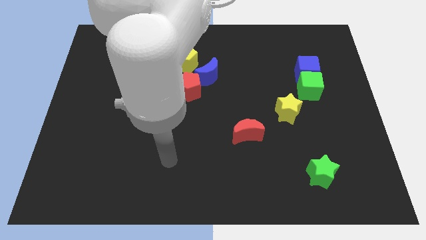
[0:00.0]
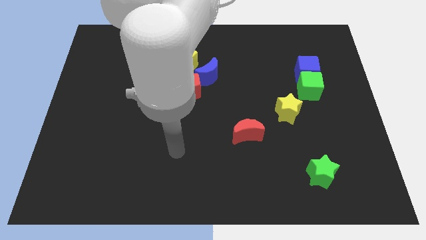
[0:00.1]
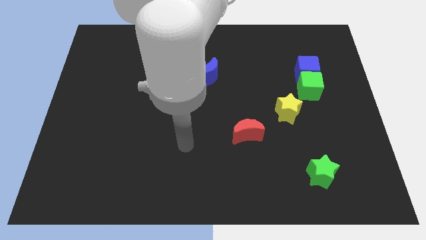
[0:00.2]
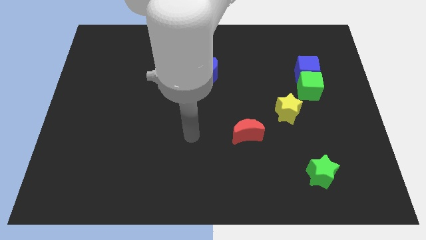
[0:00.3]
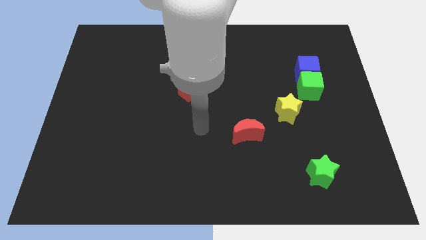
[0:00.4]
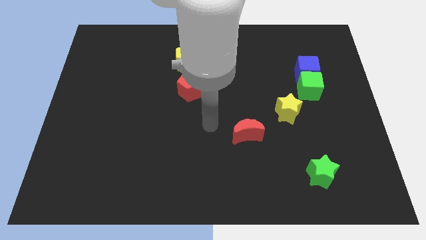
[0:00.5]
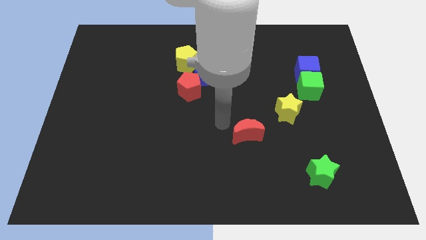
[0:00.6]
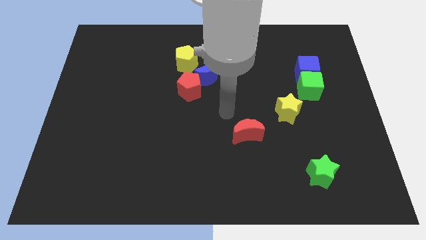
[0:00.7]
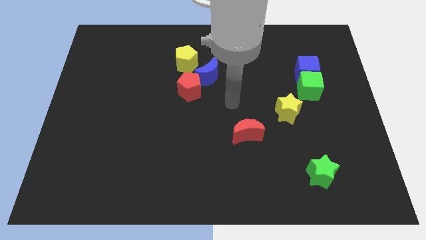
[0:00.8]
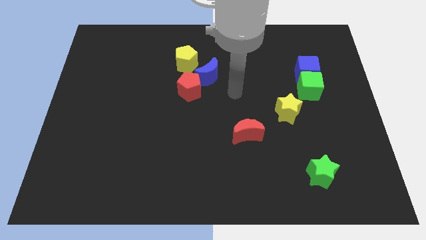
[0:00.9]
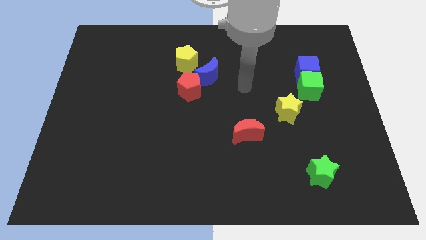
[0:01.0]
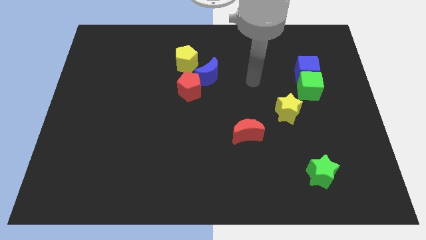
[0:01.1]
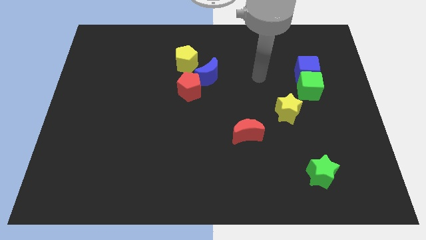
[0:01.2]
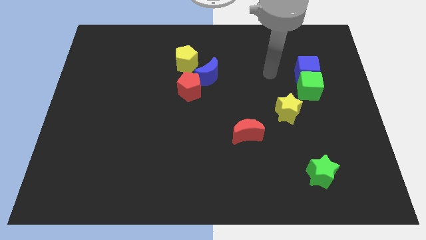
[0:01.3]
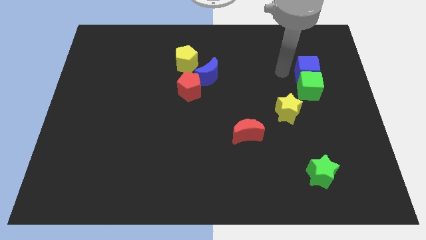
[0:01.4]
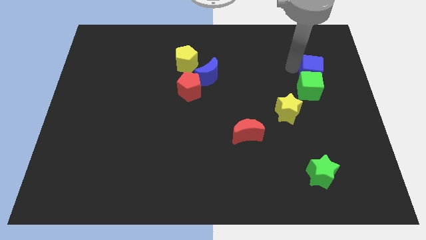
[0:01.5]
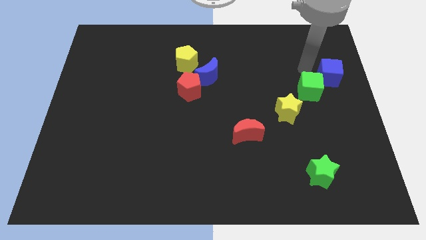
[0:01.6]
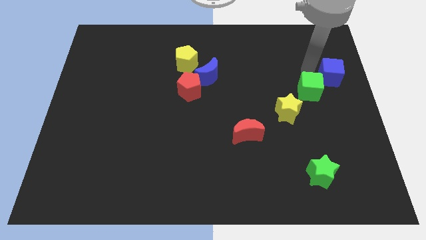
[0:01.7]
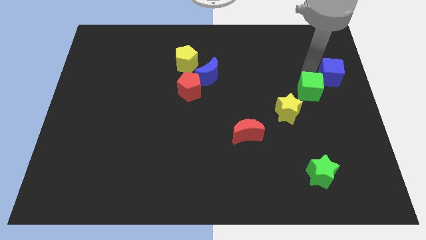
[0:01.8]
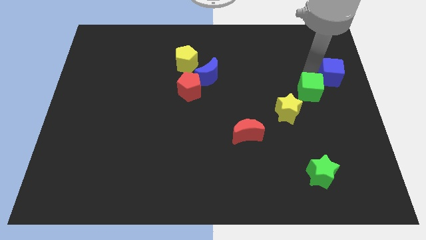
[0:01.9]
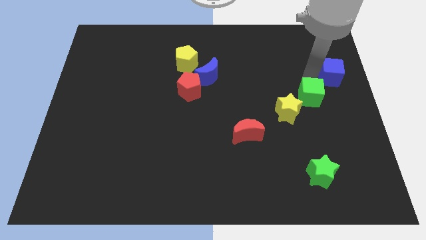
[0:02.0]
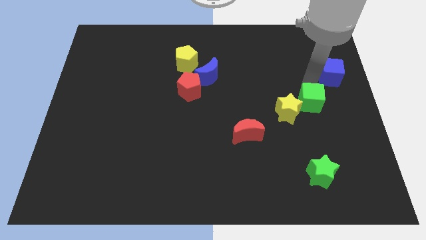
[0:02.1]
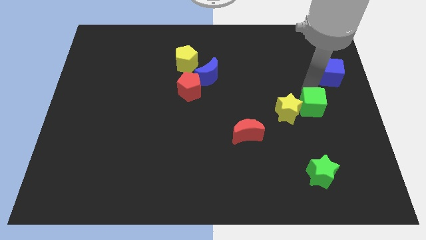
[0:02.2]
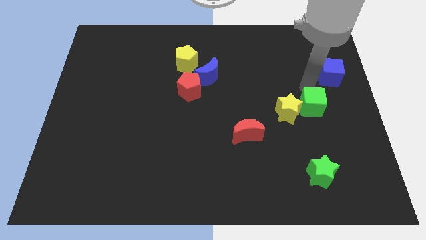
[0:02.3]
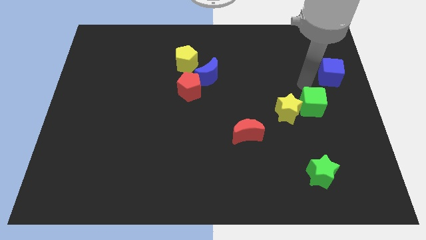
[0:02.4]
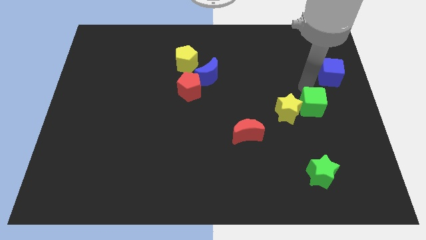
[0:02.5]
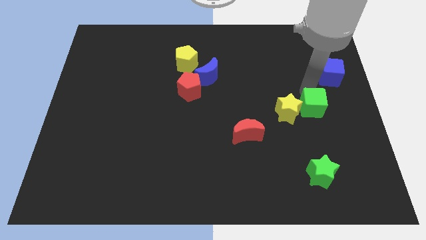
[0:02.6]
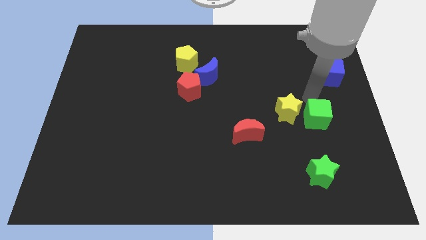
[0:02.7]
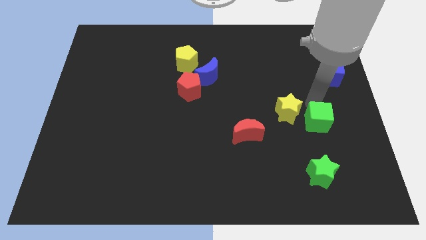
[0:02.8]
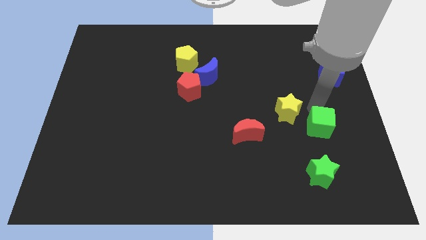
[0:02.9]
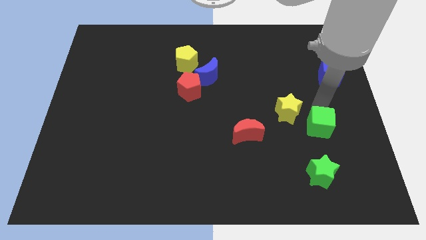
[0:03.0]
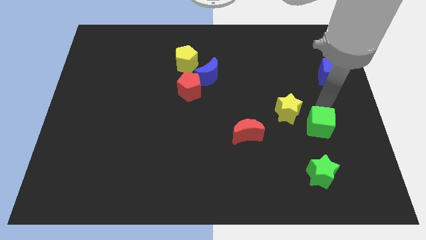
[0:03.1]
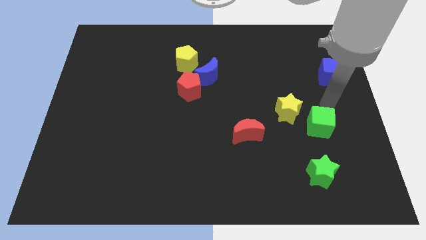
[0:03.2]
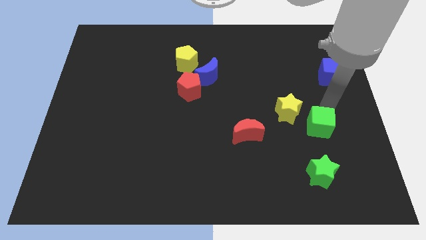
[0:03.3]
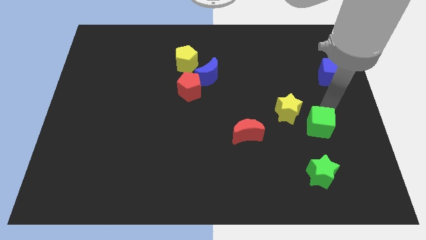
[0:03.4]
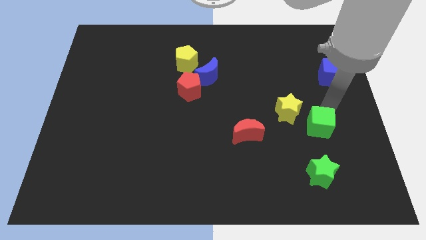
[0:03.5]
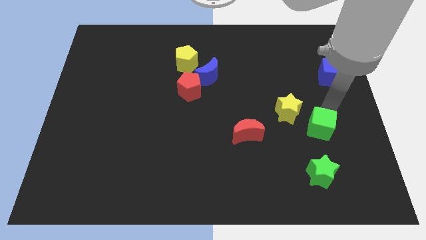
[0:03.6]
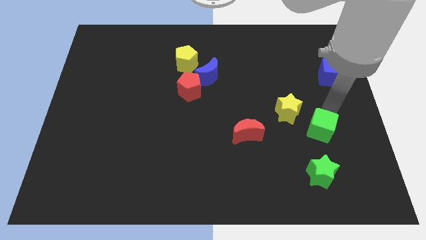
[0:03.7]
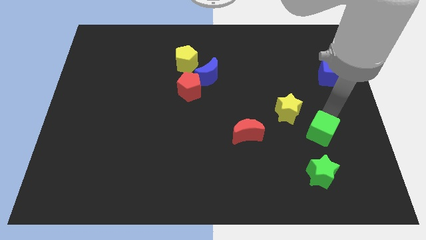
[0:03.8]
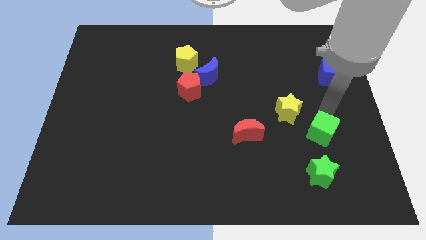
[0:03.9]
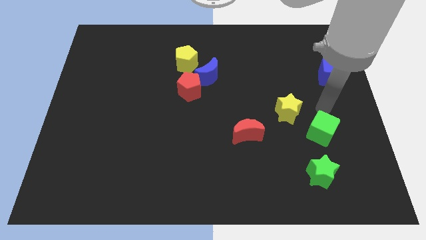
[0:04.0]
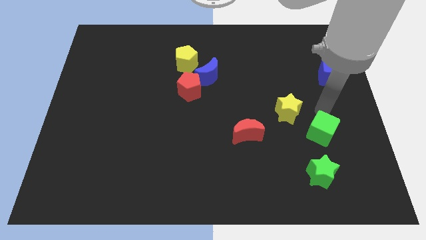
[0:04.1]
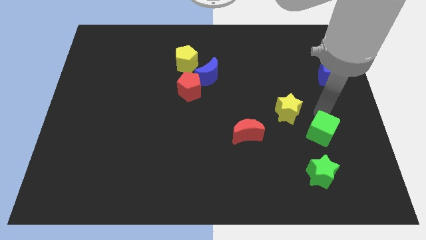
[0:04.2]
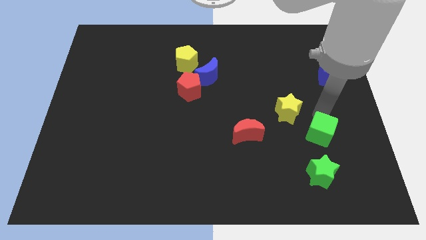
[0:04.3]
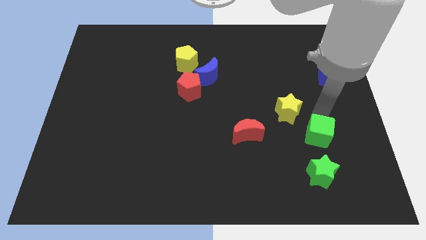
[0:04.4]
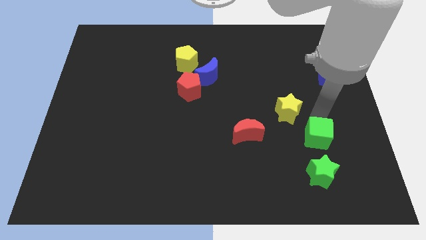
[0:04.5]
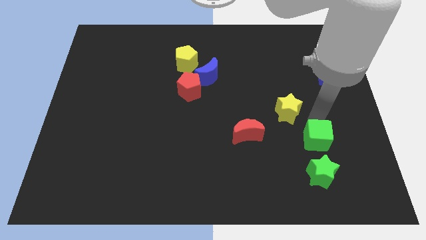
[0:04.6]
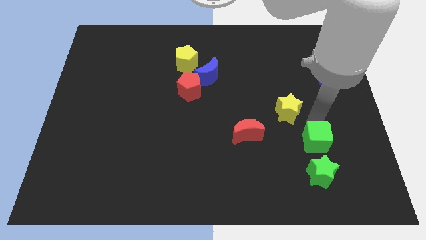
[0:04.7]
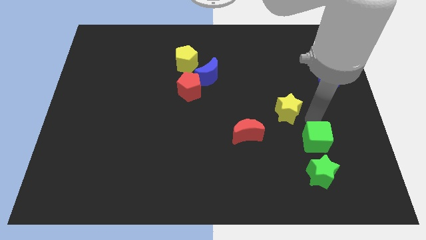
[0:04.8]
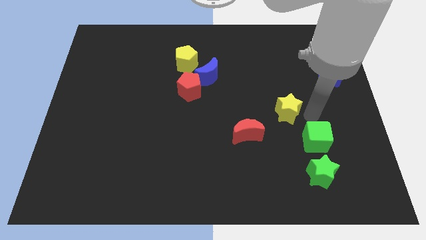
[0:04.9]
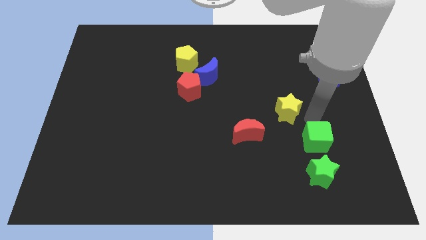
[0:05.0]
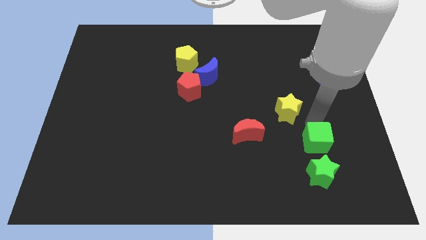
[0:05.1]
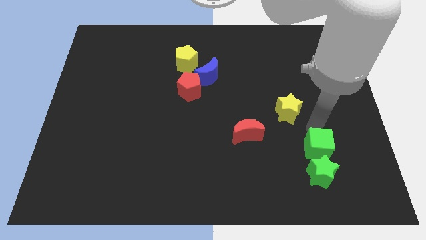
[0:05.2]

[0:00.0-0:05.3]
move the green cube to the green star

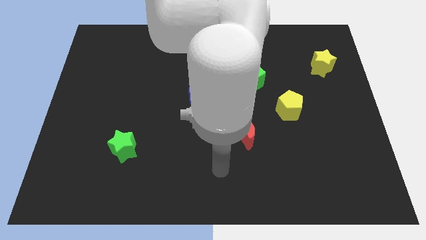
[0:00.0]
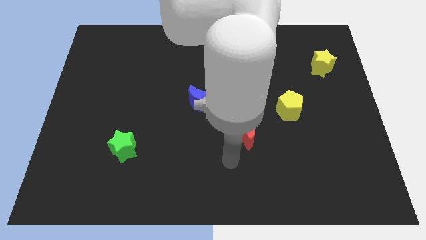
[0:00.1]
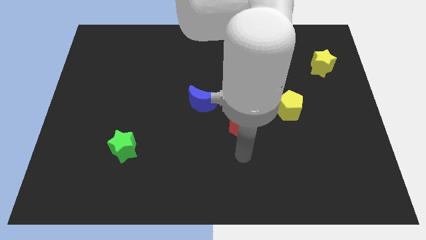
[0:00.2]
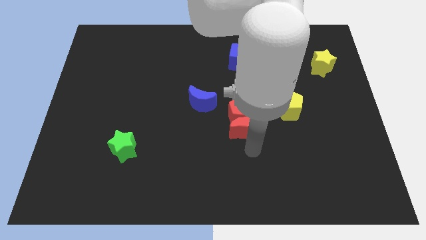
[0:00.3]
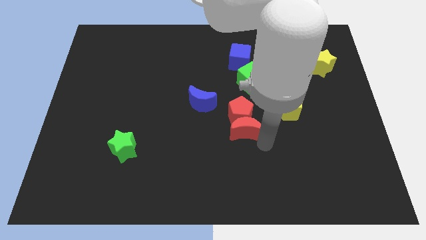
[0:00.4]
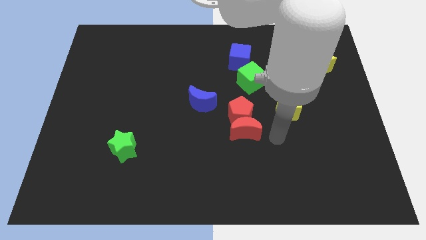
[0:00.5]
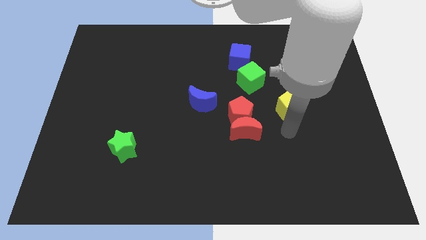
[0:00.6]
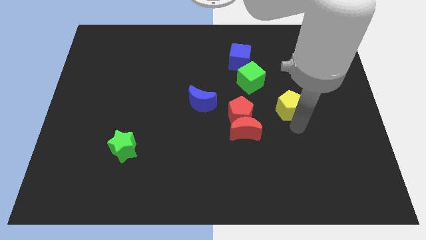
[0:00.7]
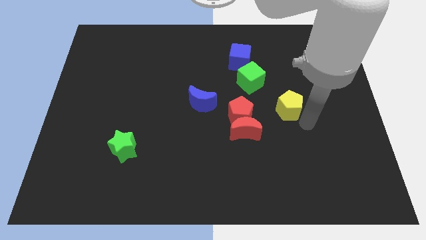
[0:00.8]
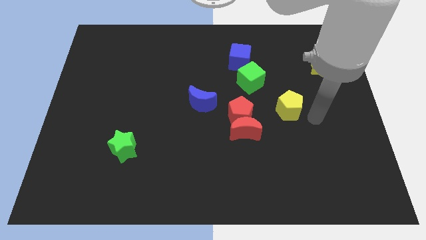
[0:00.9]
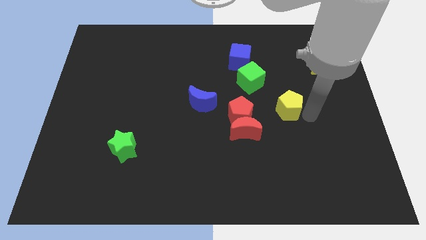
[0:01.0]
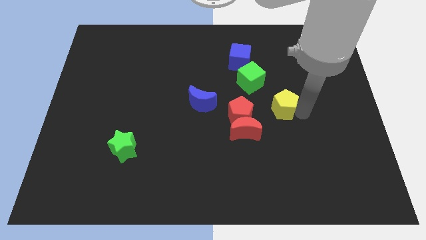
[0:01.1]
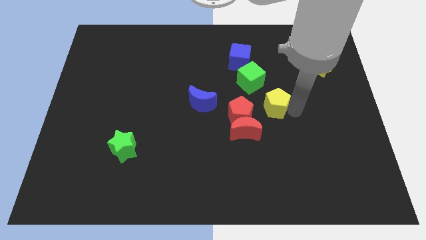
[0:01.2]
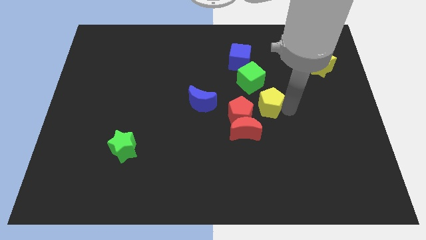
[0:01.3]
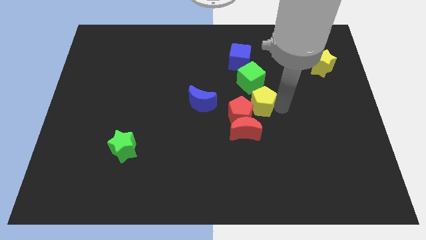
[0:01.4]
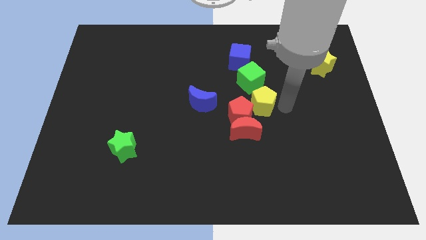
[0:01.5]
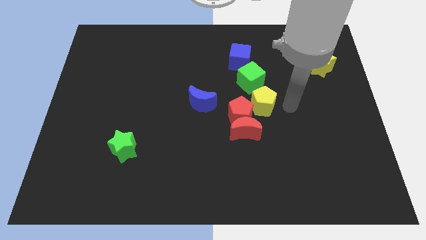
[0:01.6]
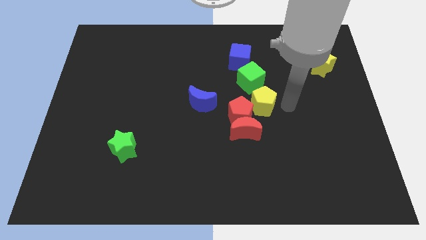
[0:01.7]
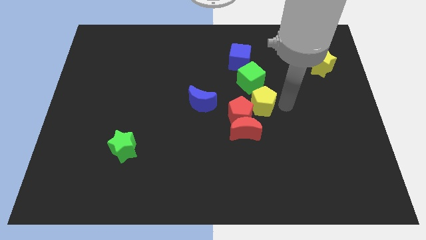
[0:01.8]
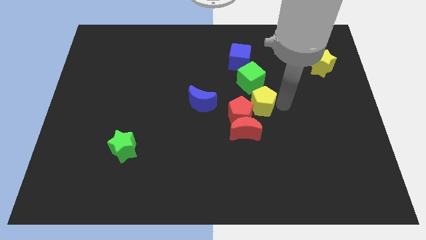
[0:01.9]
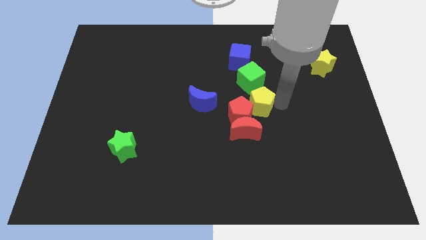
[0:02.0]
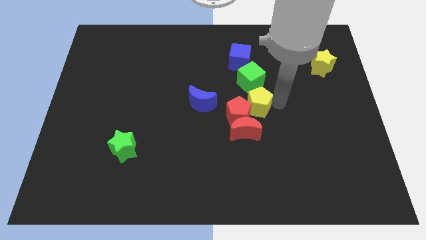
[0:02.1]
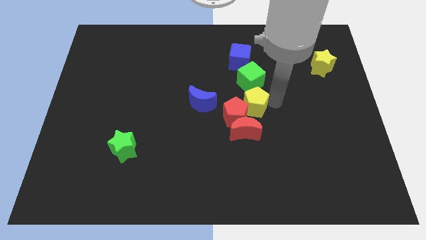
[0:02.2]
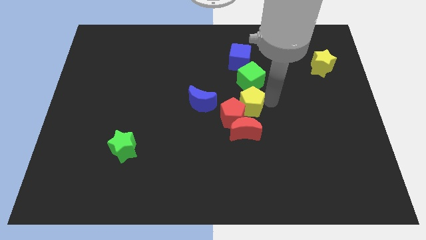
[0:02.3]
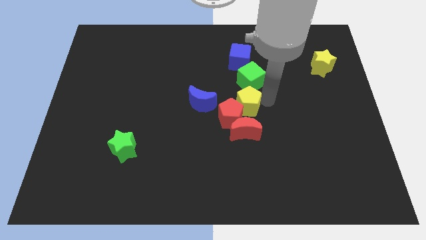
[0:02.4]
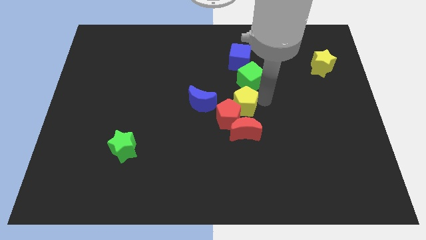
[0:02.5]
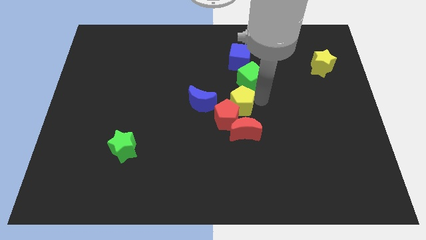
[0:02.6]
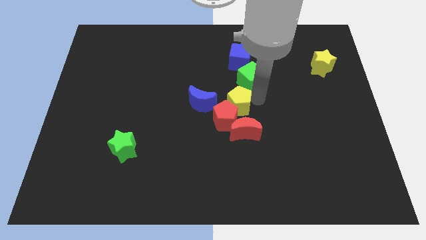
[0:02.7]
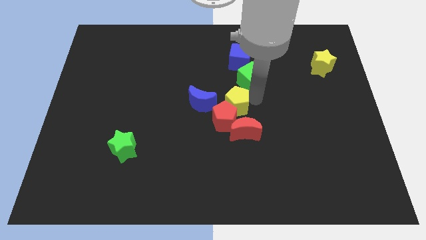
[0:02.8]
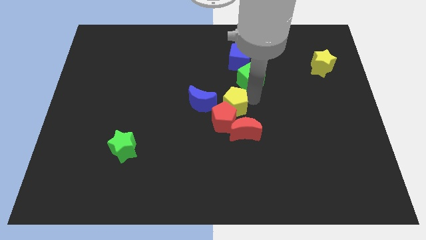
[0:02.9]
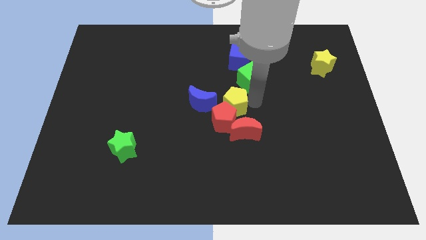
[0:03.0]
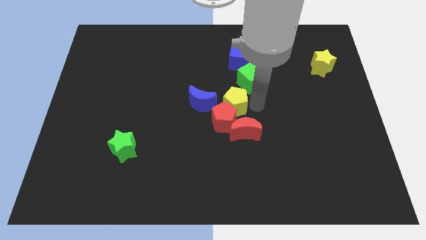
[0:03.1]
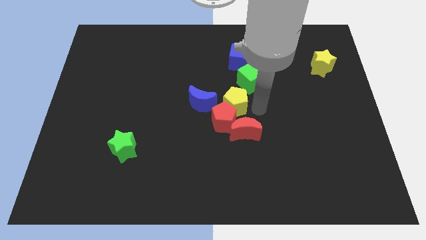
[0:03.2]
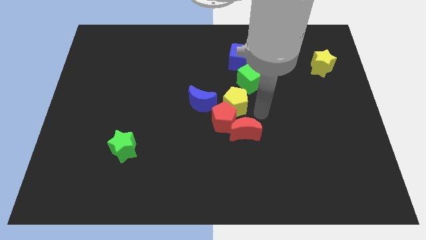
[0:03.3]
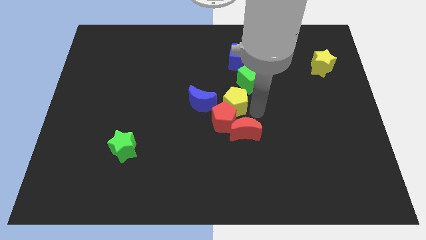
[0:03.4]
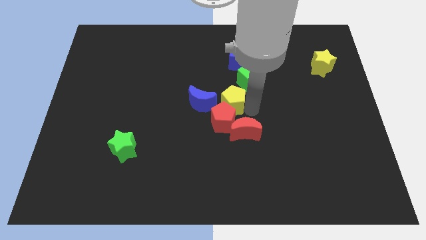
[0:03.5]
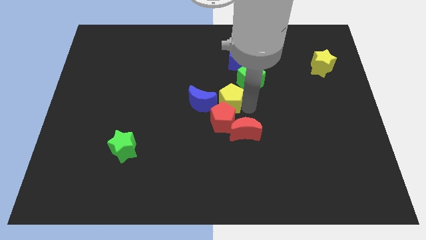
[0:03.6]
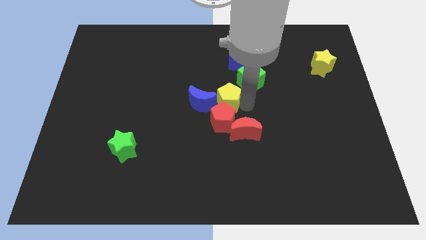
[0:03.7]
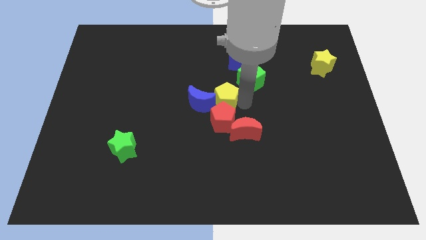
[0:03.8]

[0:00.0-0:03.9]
slide the yellow pentagon to the blue moon
